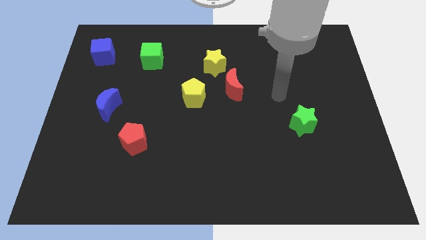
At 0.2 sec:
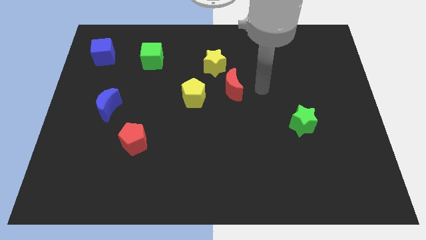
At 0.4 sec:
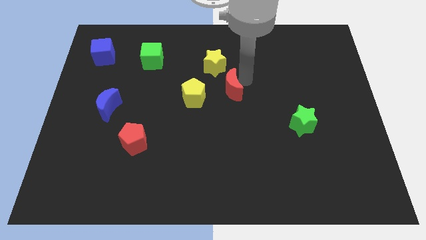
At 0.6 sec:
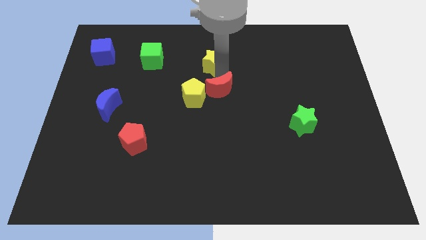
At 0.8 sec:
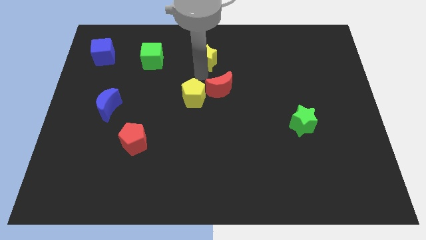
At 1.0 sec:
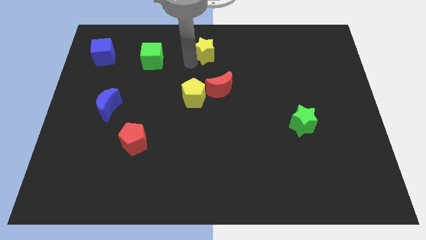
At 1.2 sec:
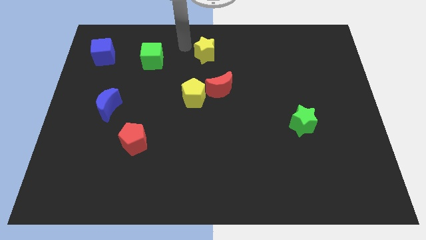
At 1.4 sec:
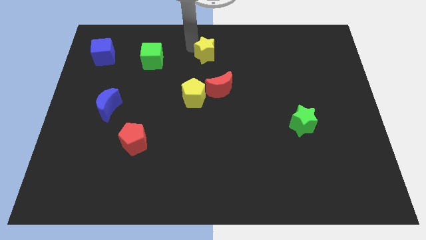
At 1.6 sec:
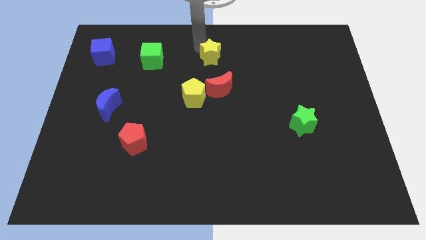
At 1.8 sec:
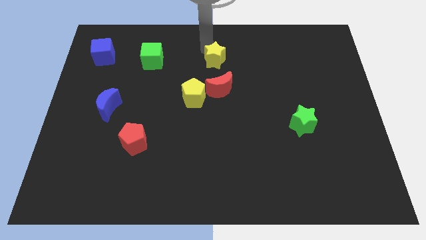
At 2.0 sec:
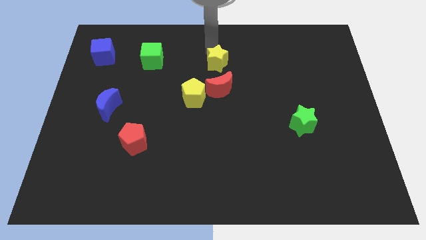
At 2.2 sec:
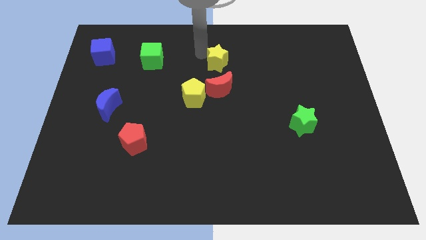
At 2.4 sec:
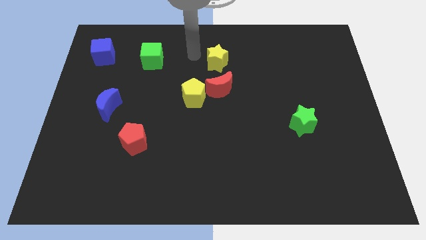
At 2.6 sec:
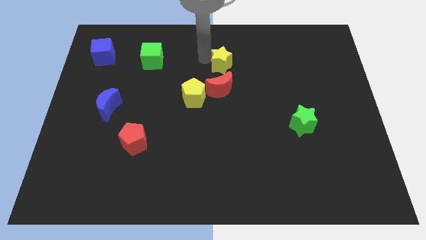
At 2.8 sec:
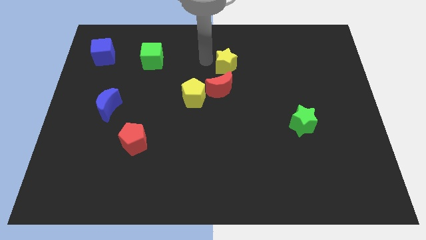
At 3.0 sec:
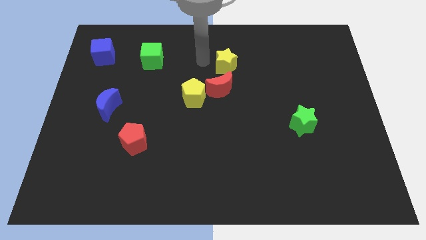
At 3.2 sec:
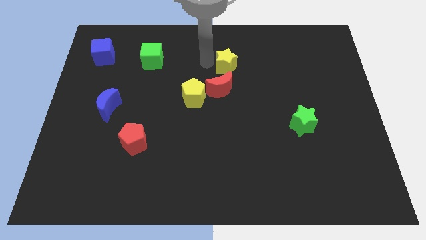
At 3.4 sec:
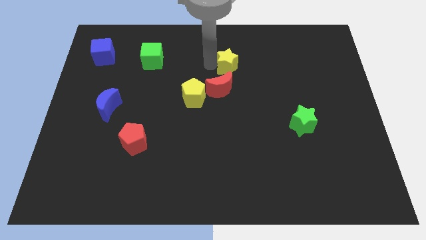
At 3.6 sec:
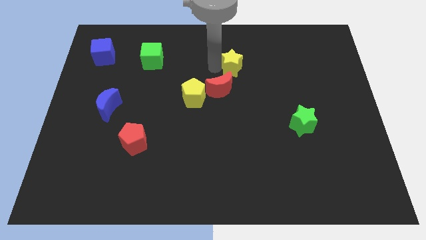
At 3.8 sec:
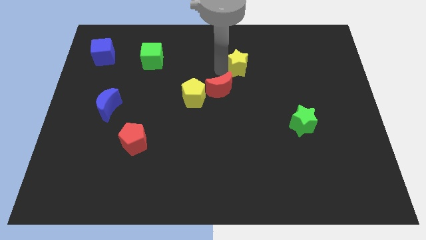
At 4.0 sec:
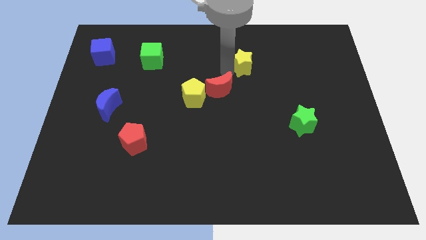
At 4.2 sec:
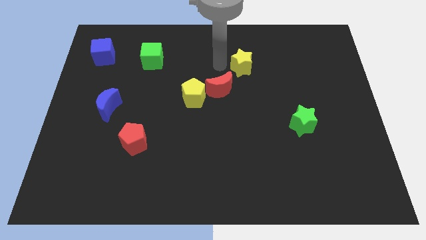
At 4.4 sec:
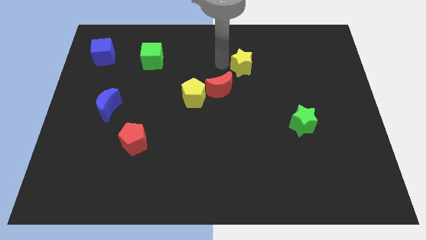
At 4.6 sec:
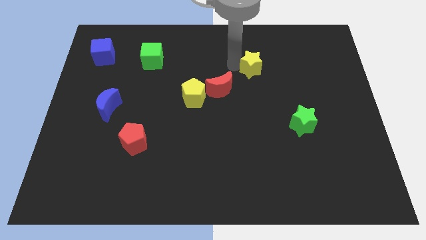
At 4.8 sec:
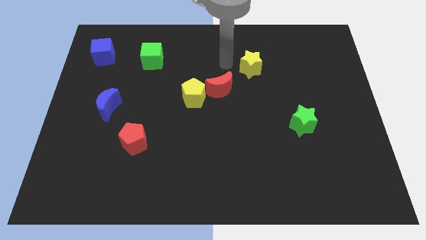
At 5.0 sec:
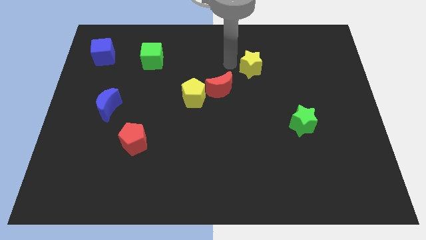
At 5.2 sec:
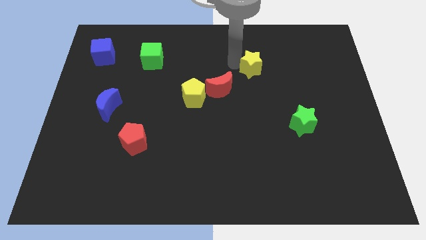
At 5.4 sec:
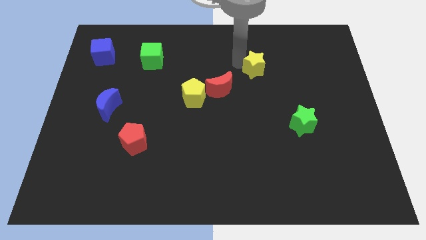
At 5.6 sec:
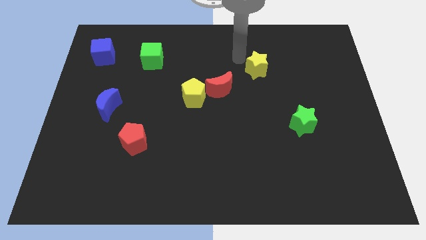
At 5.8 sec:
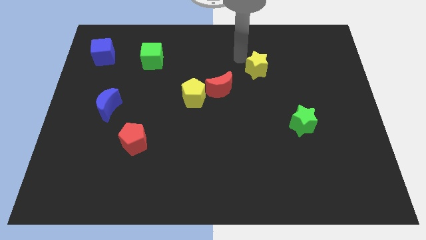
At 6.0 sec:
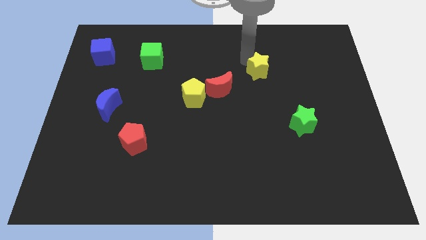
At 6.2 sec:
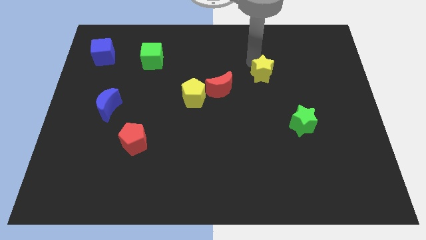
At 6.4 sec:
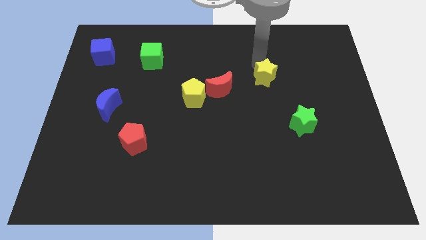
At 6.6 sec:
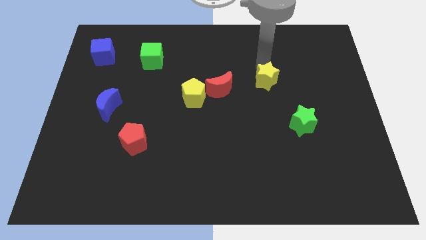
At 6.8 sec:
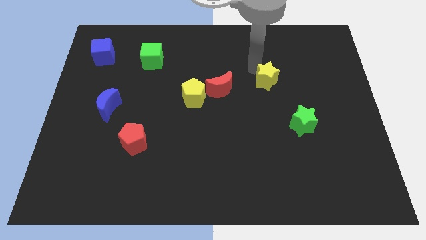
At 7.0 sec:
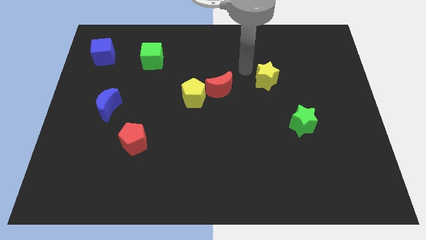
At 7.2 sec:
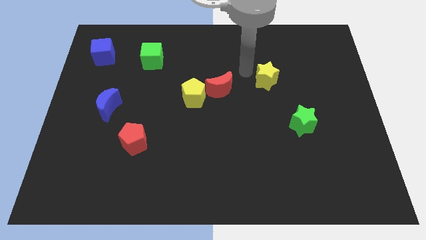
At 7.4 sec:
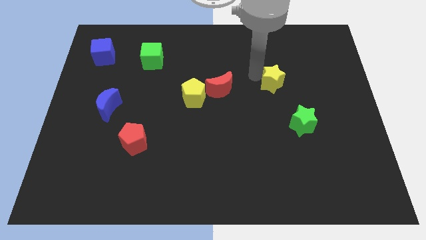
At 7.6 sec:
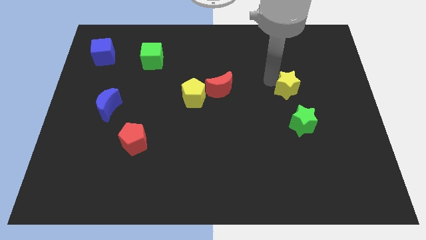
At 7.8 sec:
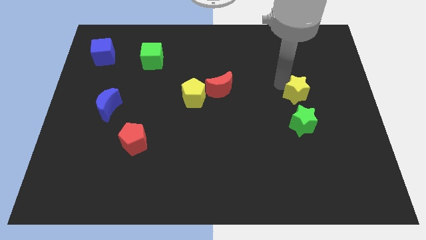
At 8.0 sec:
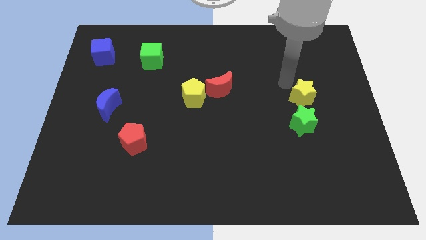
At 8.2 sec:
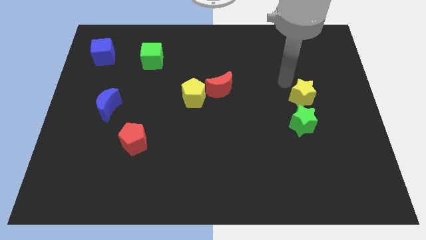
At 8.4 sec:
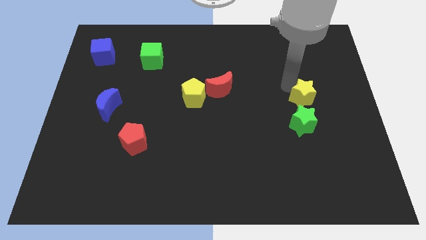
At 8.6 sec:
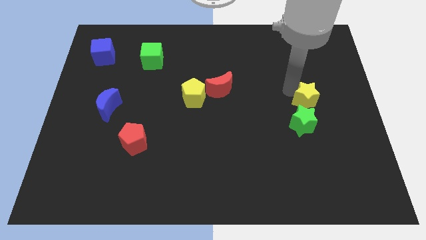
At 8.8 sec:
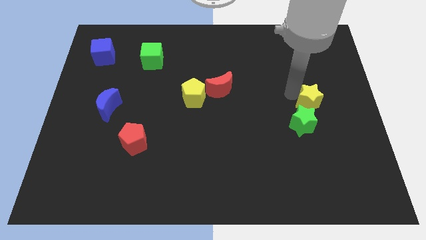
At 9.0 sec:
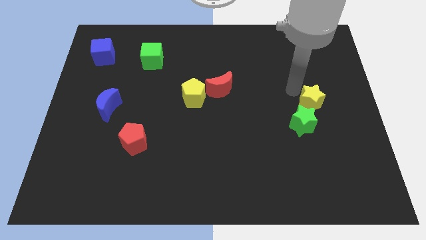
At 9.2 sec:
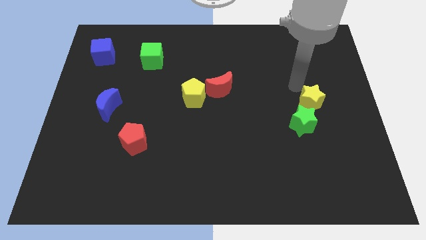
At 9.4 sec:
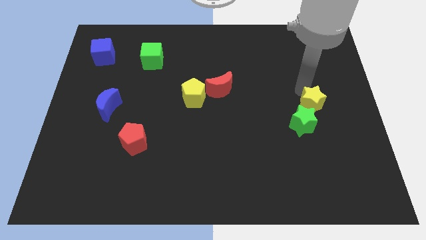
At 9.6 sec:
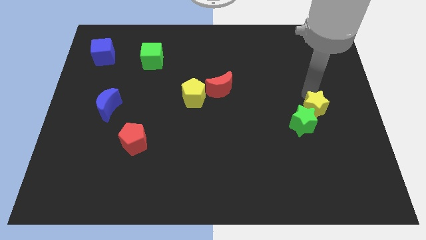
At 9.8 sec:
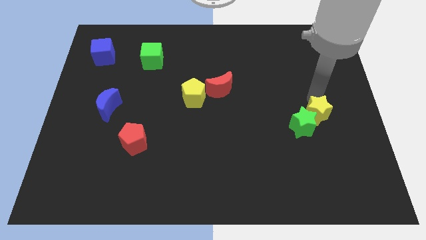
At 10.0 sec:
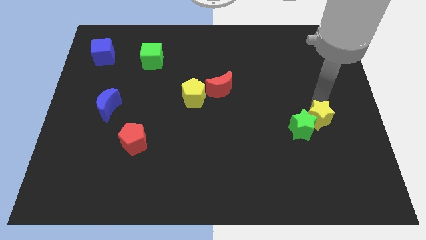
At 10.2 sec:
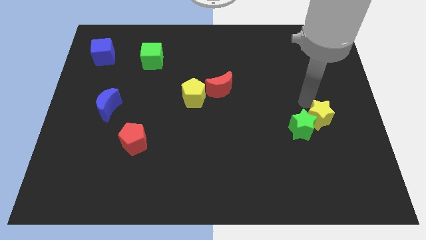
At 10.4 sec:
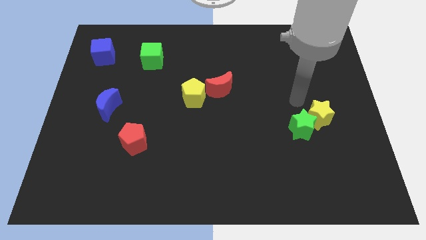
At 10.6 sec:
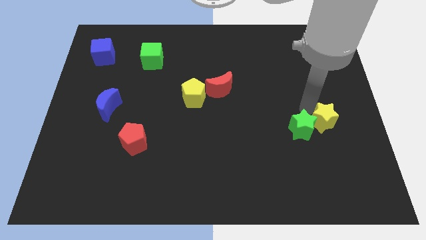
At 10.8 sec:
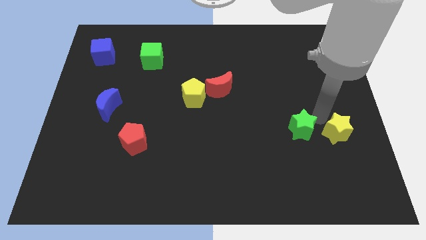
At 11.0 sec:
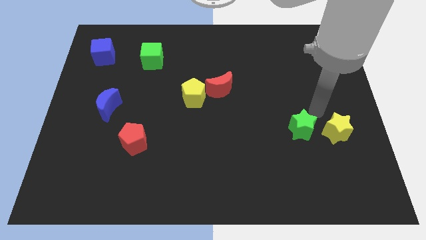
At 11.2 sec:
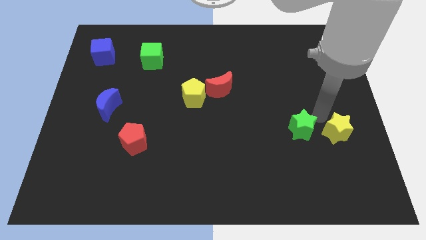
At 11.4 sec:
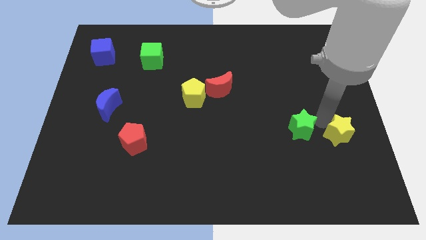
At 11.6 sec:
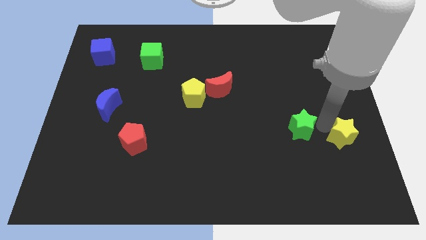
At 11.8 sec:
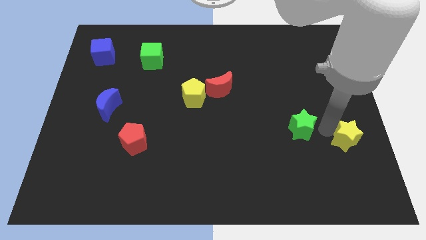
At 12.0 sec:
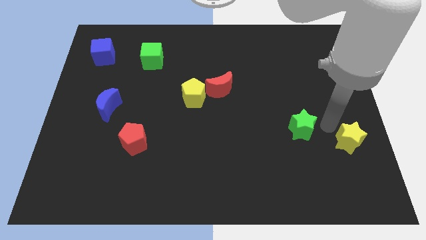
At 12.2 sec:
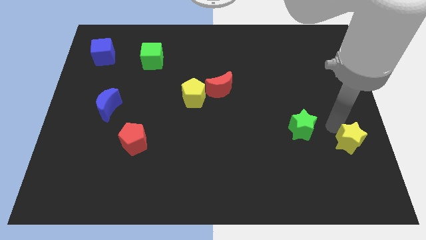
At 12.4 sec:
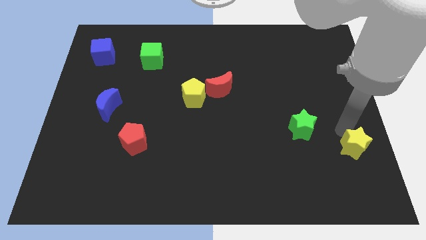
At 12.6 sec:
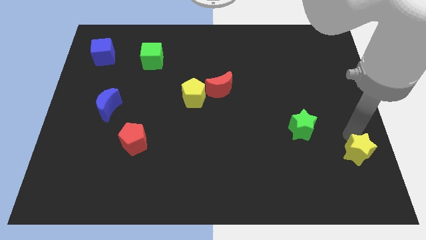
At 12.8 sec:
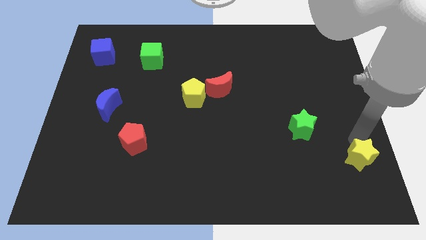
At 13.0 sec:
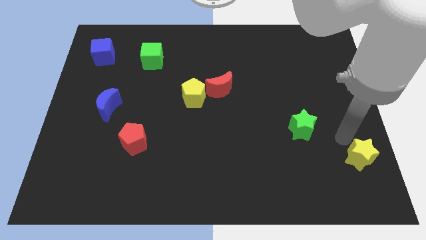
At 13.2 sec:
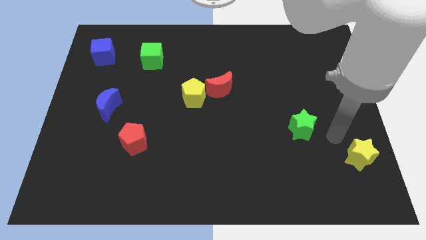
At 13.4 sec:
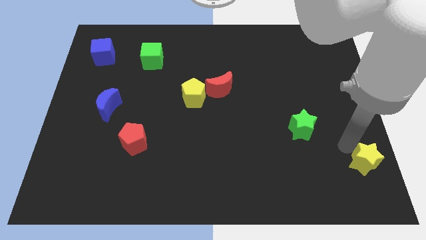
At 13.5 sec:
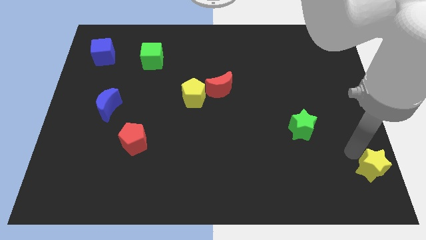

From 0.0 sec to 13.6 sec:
push the yellow star to the bottom right corner
